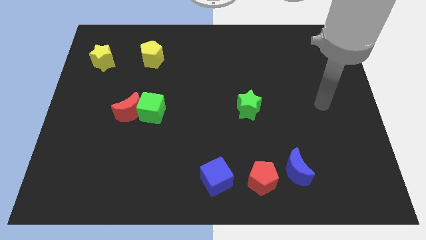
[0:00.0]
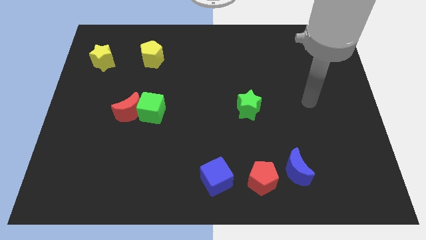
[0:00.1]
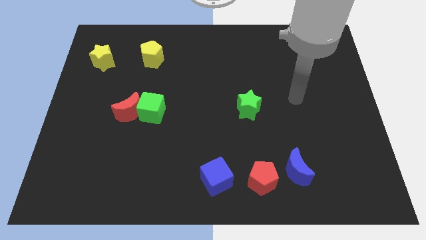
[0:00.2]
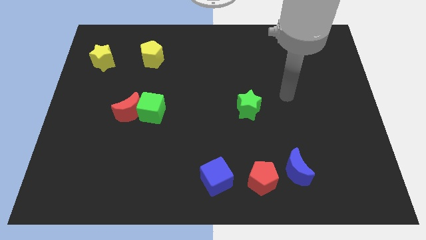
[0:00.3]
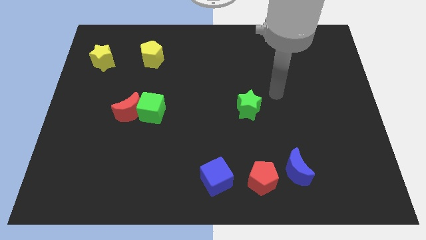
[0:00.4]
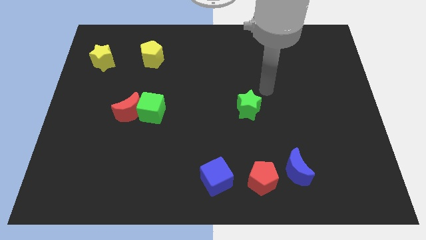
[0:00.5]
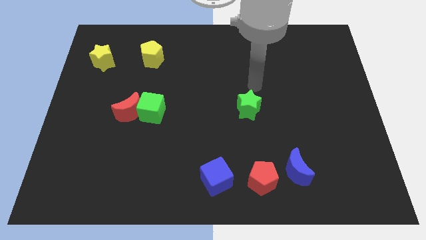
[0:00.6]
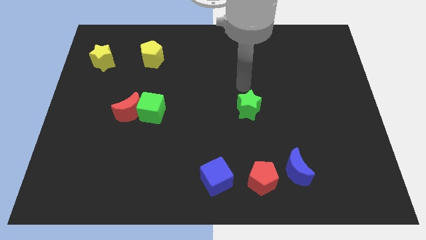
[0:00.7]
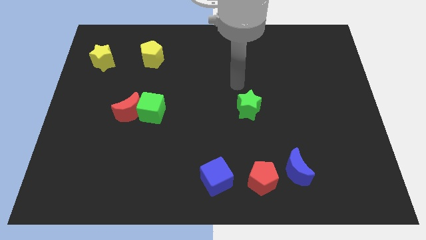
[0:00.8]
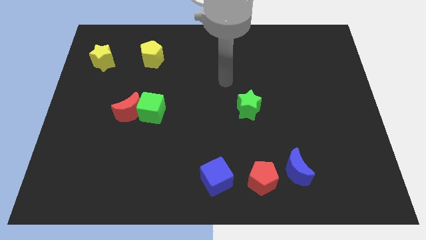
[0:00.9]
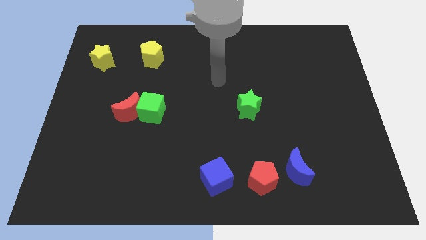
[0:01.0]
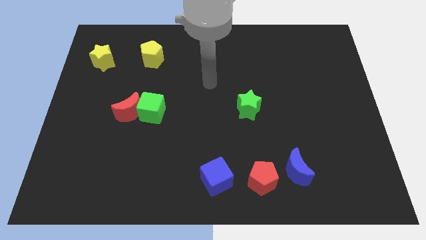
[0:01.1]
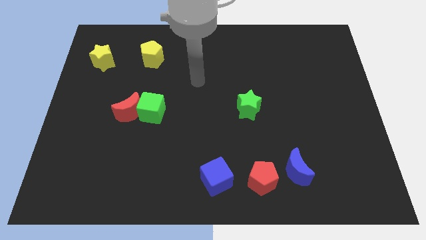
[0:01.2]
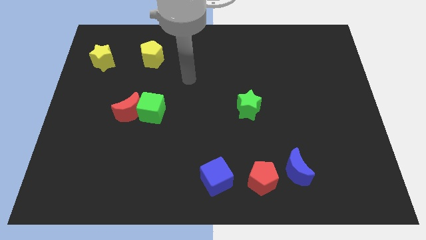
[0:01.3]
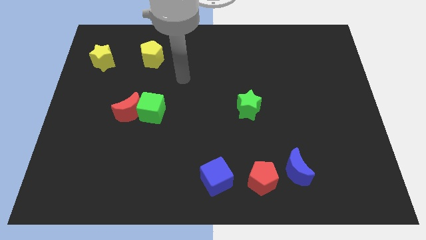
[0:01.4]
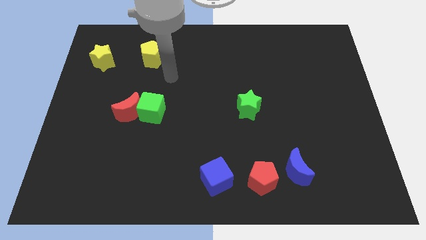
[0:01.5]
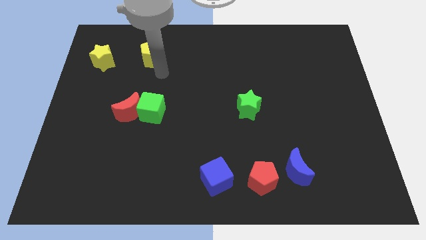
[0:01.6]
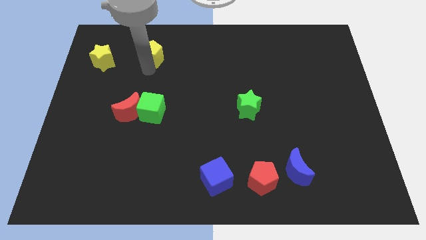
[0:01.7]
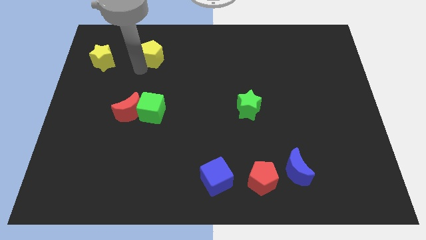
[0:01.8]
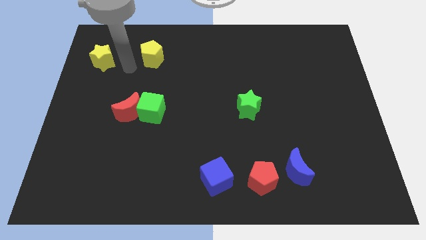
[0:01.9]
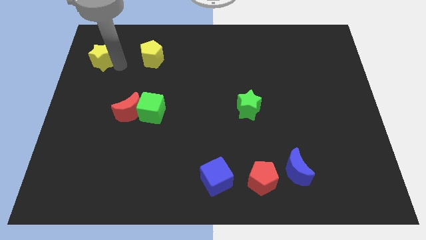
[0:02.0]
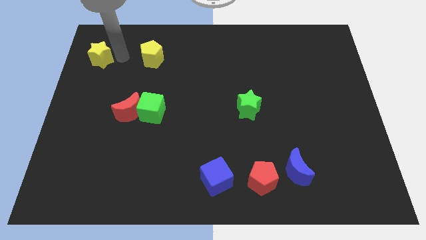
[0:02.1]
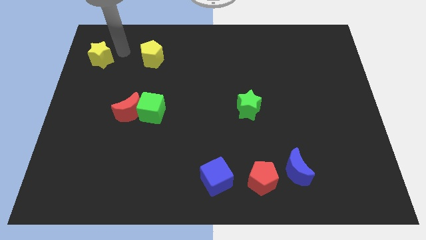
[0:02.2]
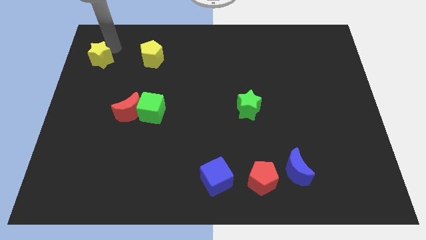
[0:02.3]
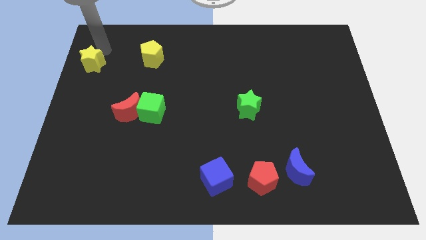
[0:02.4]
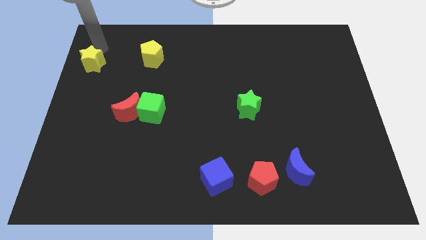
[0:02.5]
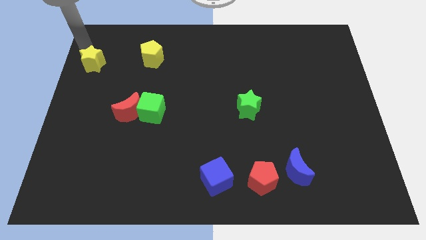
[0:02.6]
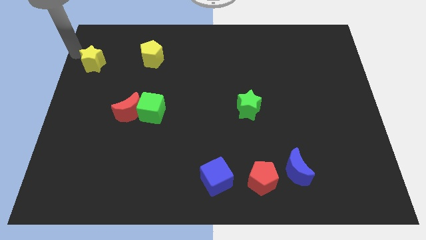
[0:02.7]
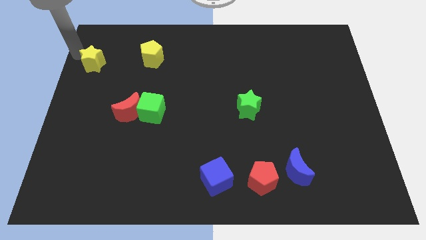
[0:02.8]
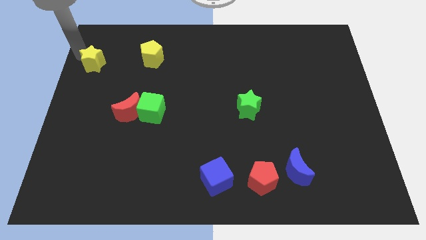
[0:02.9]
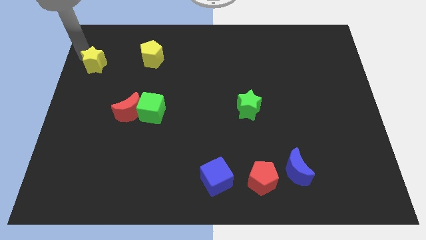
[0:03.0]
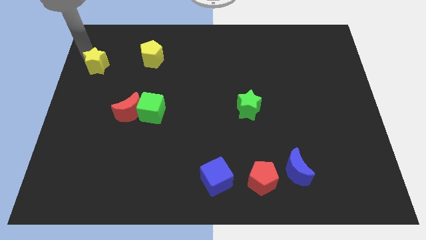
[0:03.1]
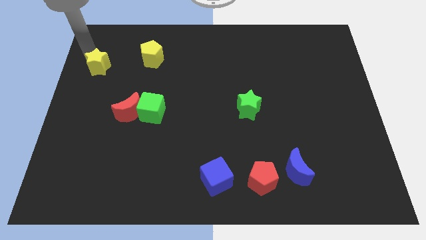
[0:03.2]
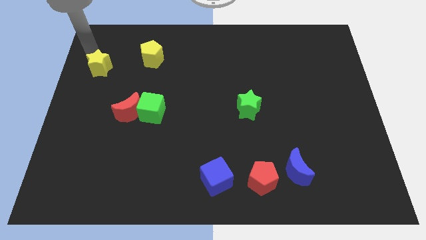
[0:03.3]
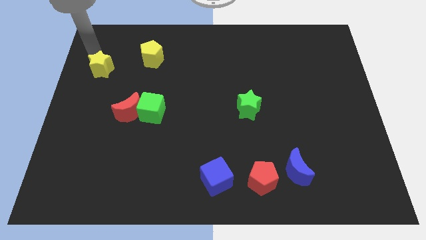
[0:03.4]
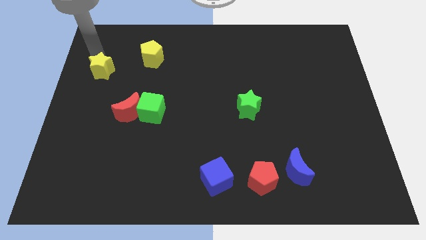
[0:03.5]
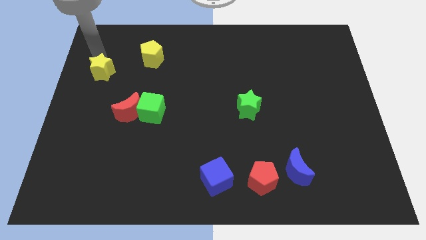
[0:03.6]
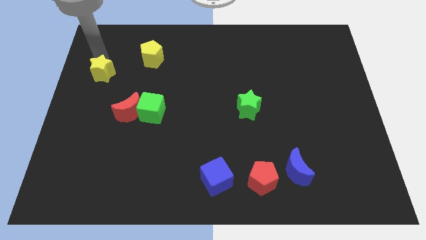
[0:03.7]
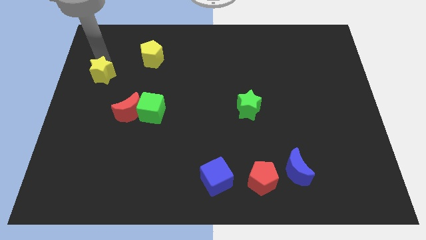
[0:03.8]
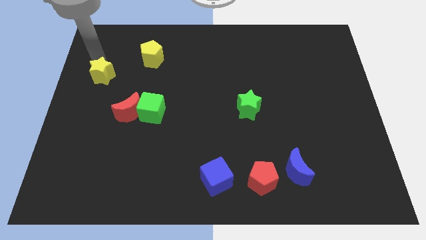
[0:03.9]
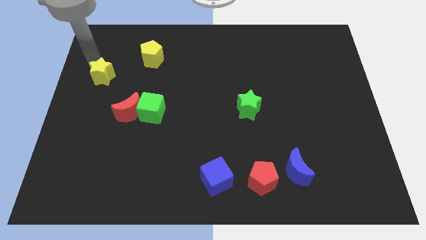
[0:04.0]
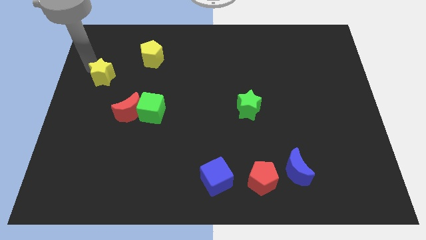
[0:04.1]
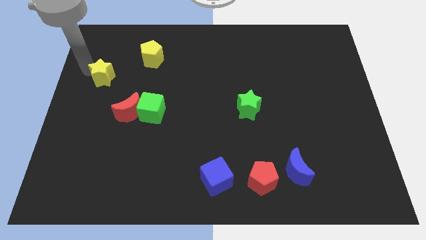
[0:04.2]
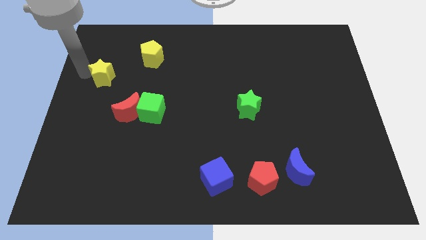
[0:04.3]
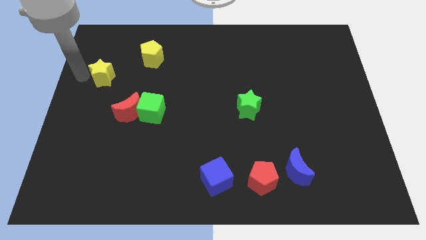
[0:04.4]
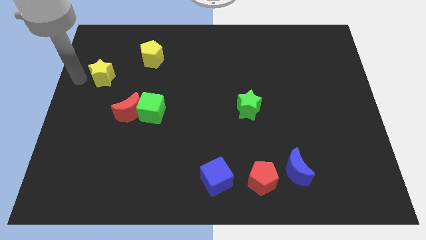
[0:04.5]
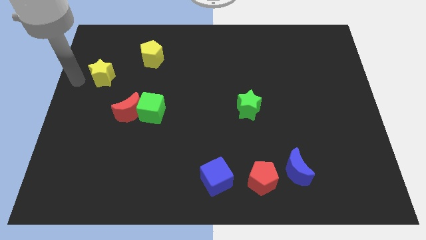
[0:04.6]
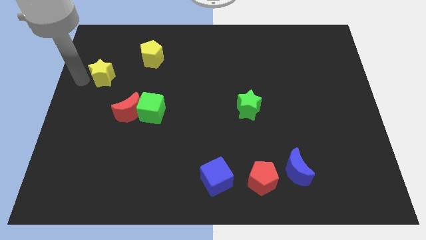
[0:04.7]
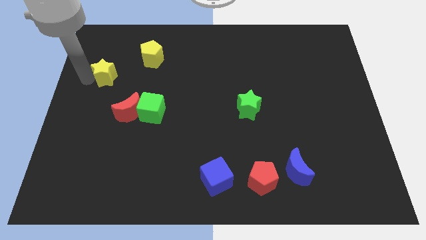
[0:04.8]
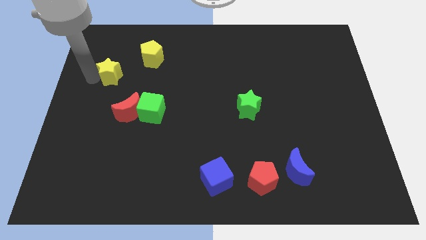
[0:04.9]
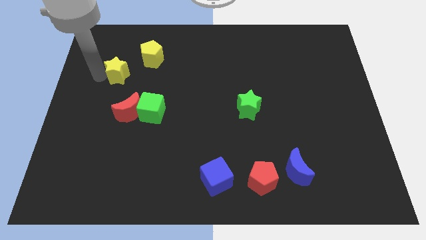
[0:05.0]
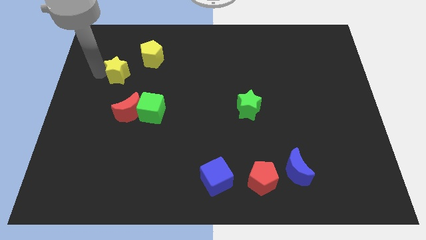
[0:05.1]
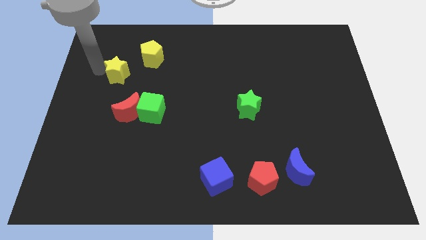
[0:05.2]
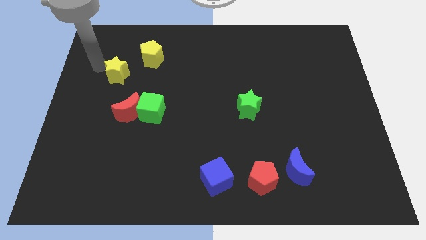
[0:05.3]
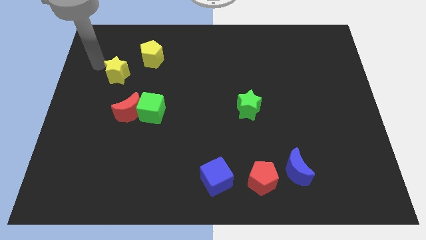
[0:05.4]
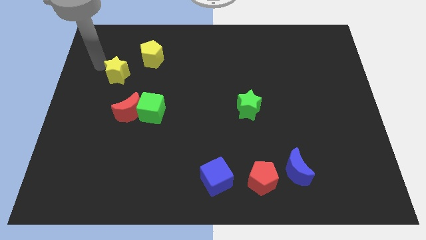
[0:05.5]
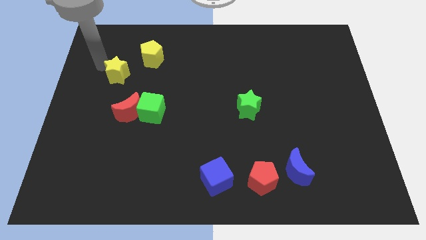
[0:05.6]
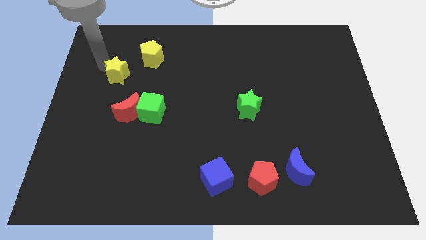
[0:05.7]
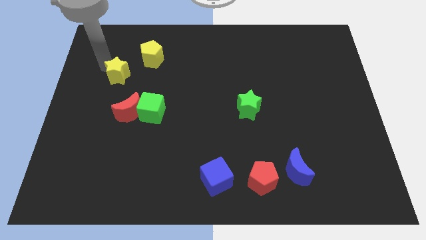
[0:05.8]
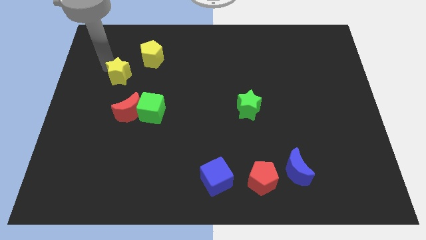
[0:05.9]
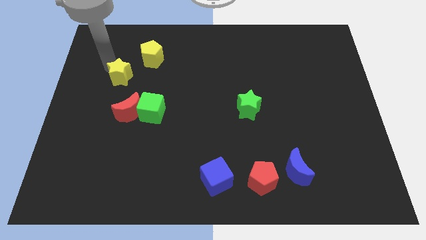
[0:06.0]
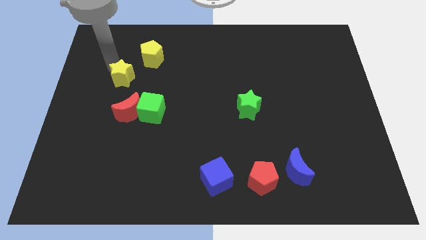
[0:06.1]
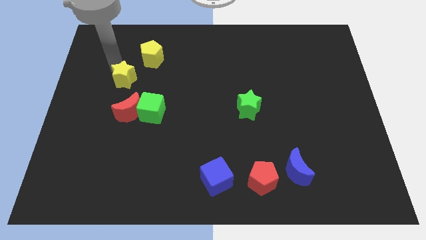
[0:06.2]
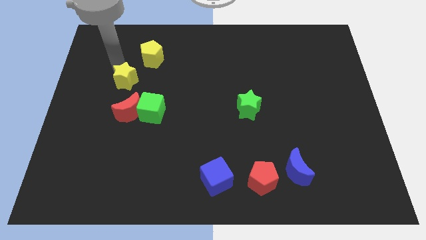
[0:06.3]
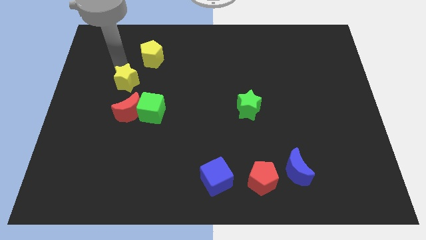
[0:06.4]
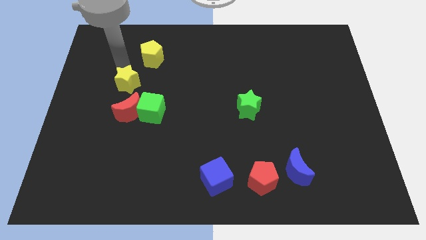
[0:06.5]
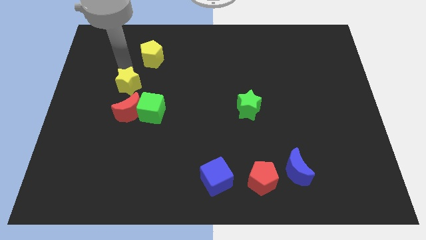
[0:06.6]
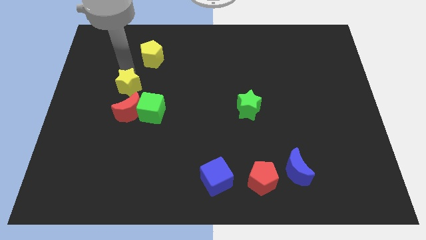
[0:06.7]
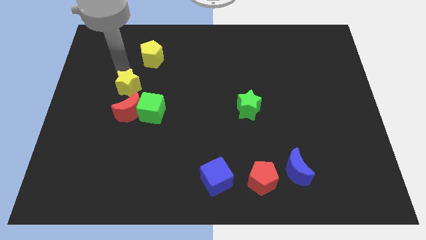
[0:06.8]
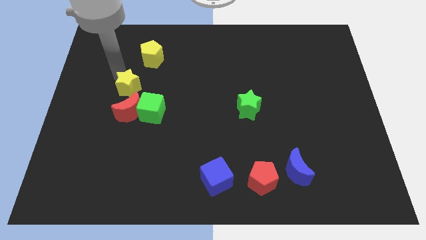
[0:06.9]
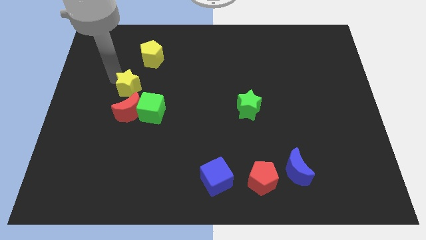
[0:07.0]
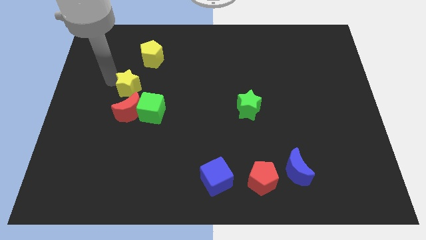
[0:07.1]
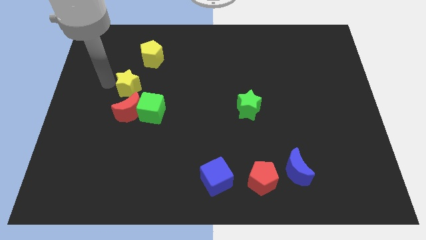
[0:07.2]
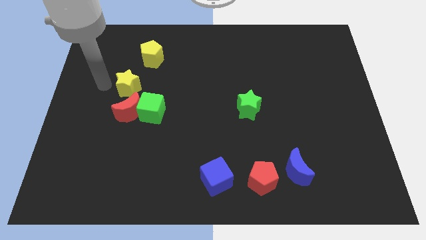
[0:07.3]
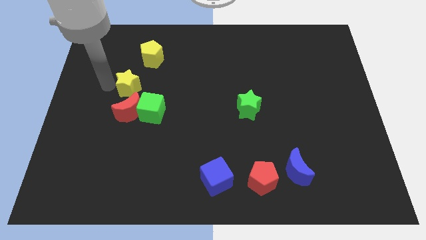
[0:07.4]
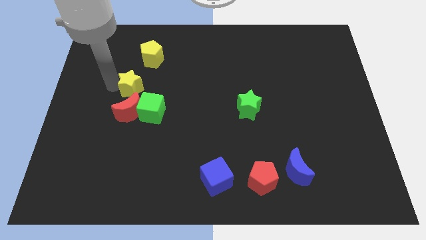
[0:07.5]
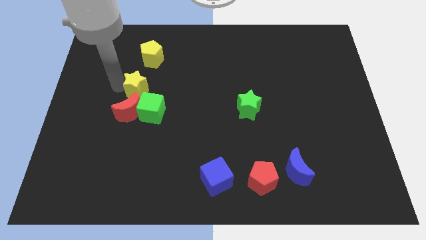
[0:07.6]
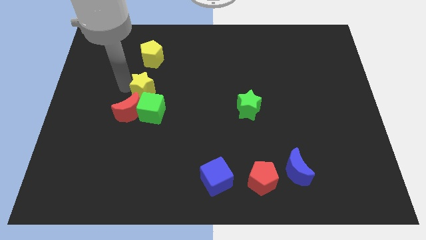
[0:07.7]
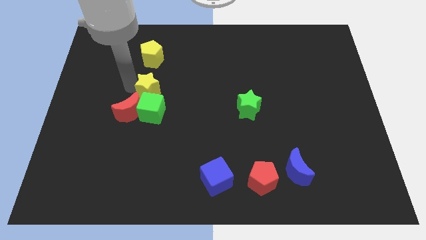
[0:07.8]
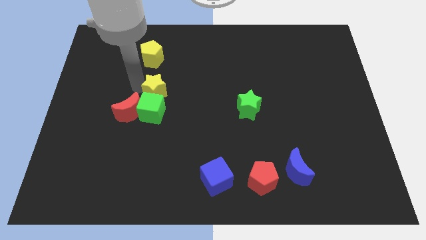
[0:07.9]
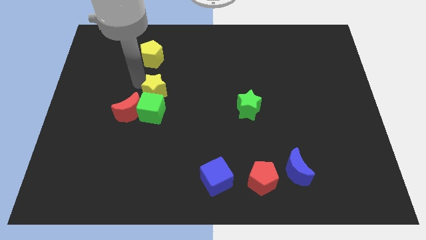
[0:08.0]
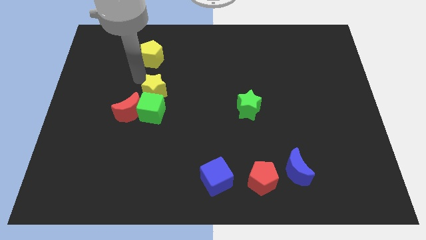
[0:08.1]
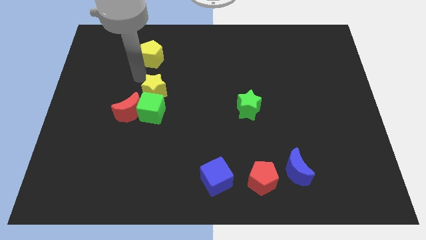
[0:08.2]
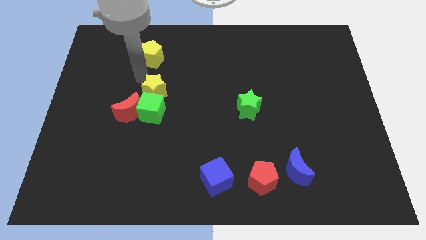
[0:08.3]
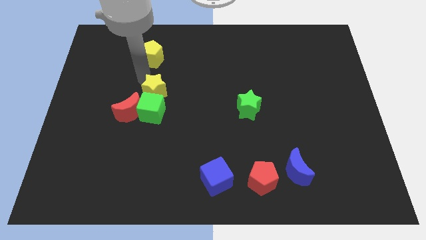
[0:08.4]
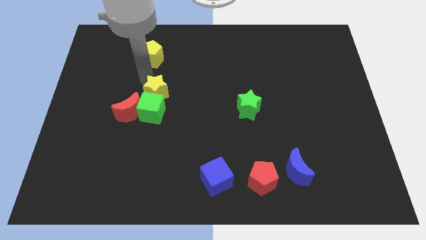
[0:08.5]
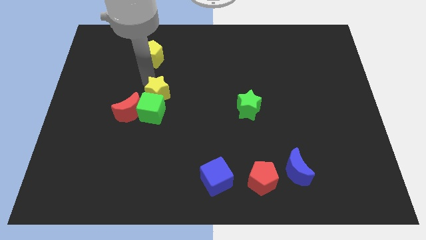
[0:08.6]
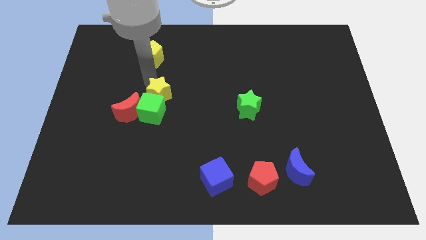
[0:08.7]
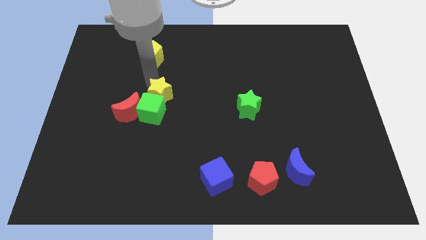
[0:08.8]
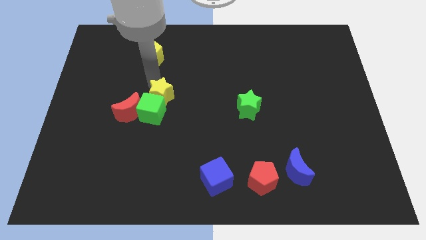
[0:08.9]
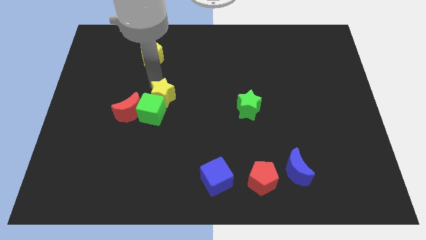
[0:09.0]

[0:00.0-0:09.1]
move the yellow star diagonally down and right
